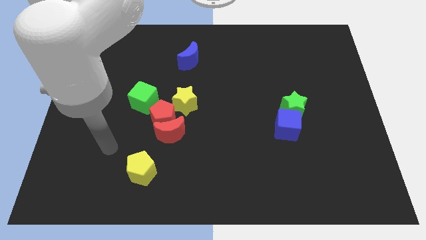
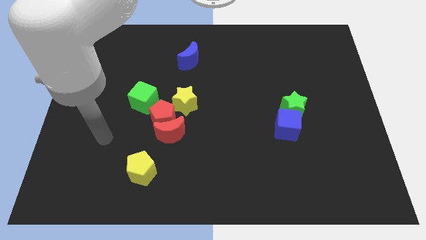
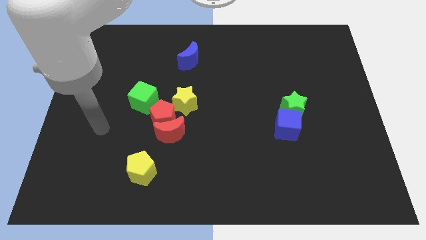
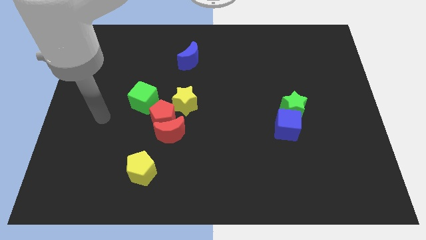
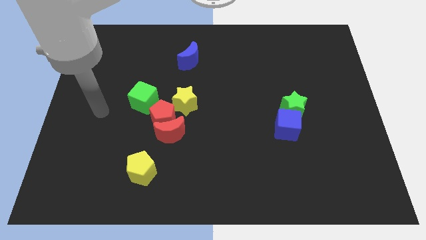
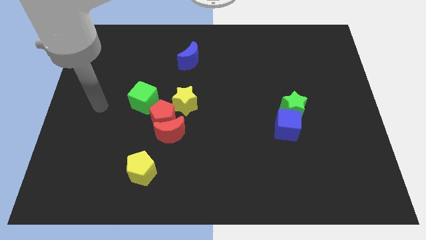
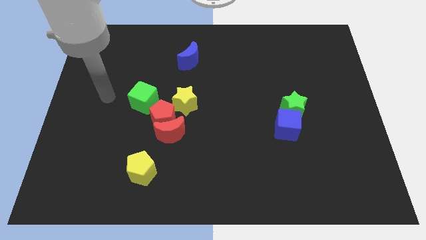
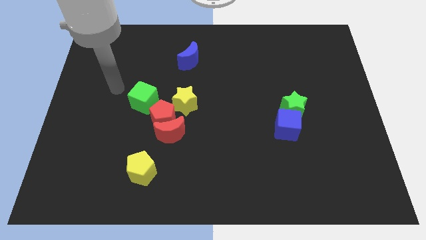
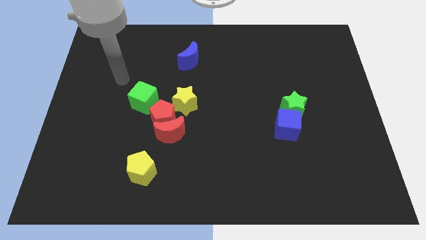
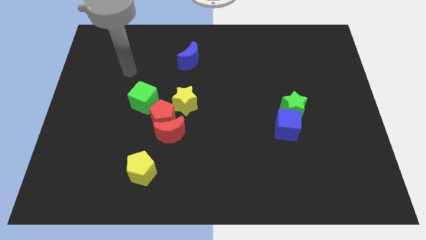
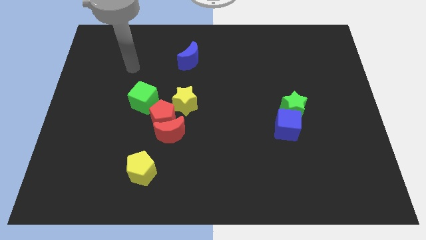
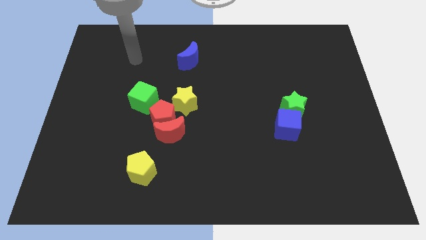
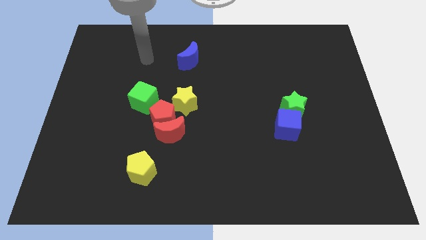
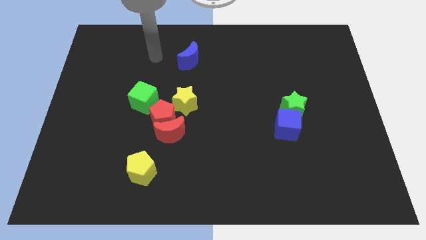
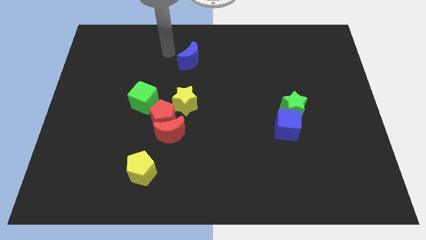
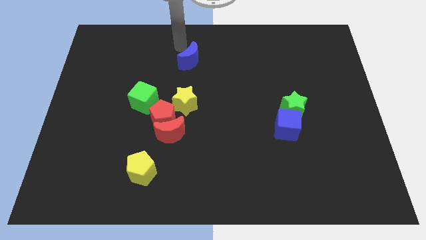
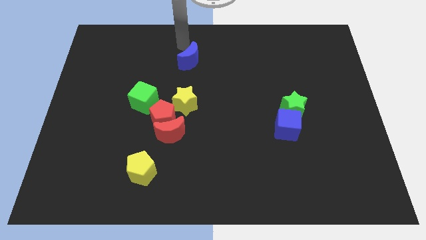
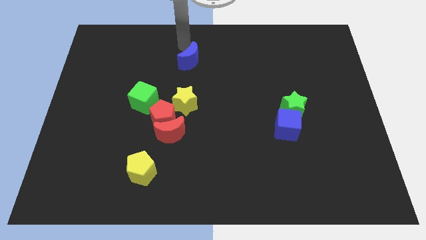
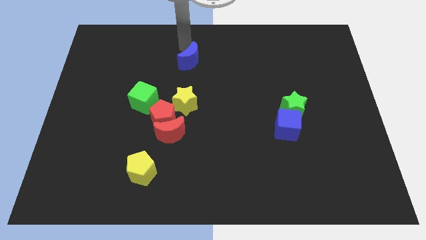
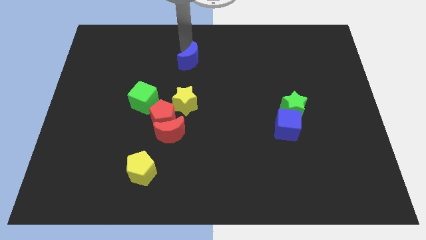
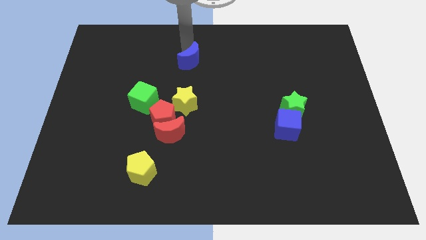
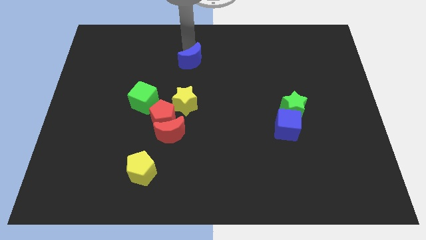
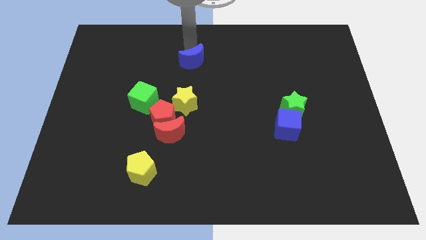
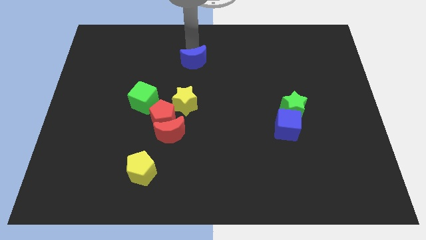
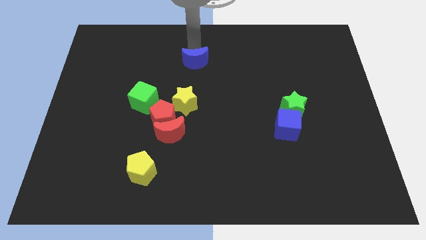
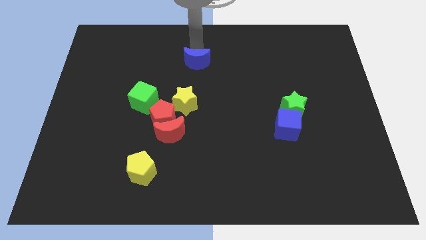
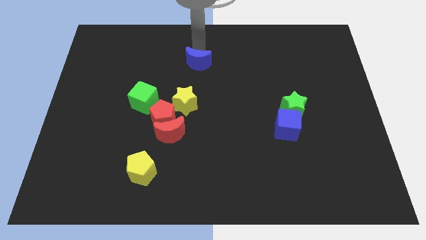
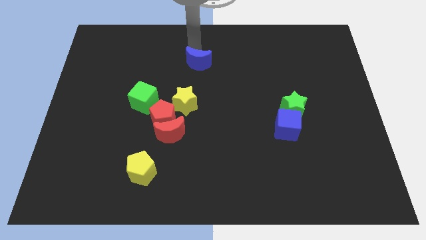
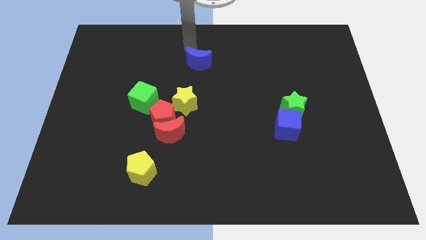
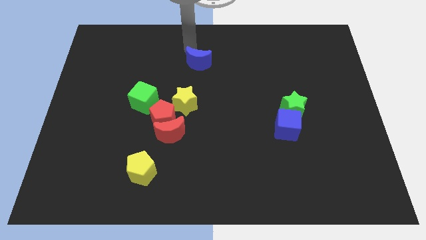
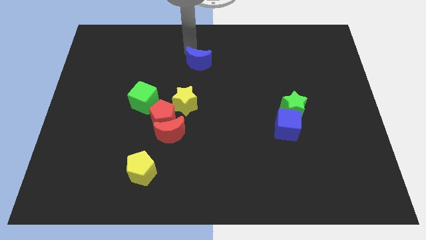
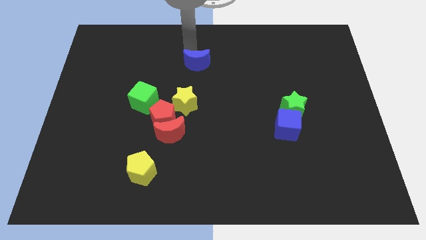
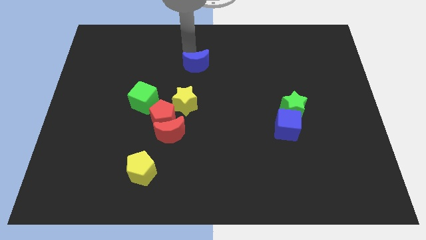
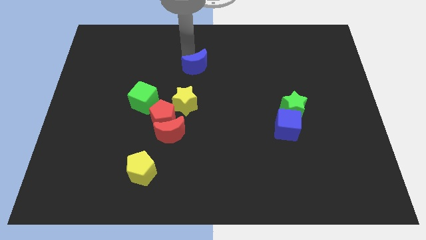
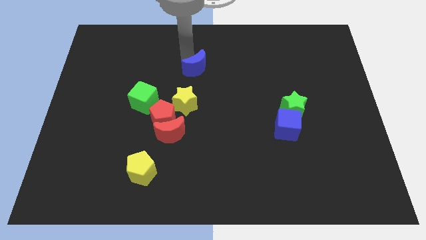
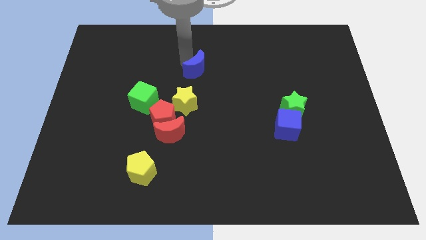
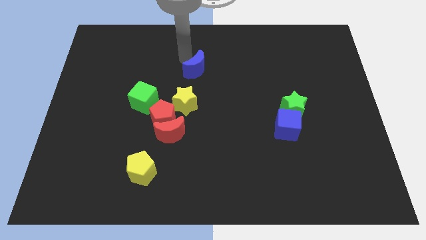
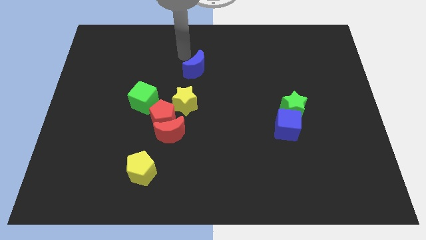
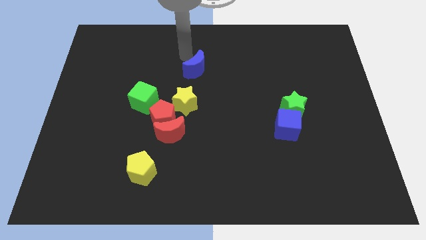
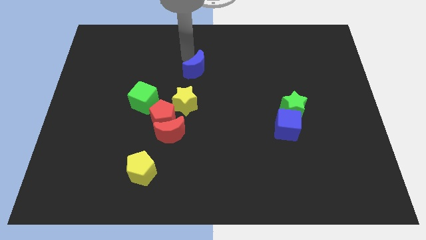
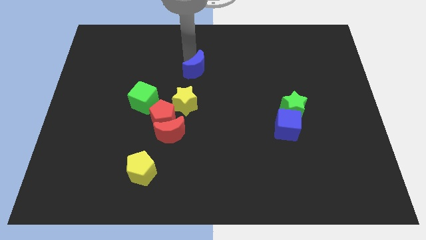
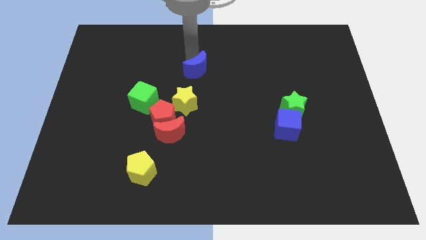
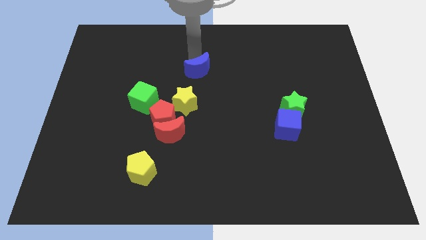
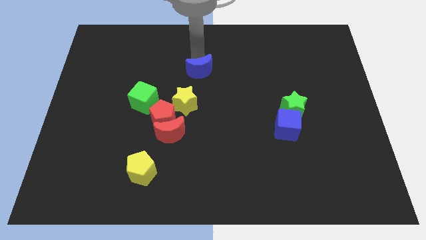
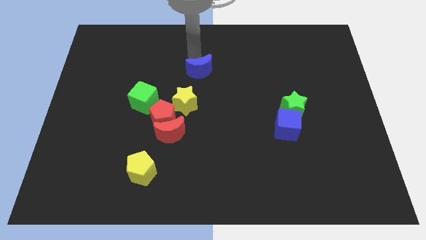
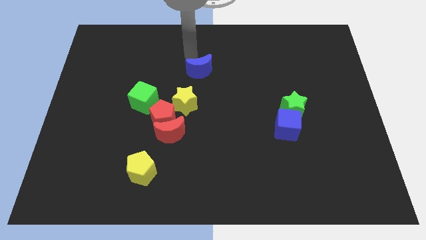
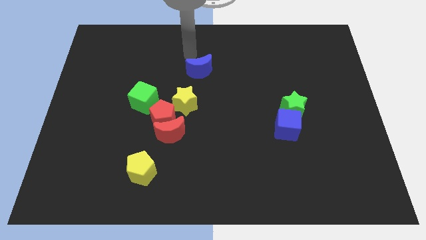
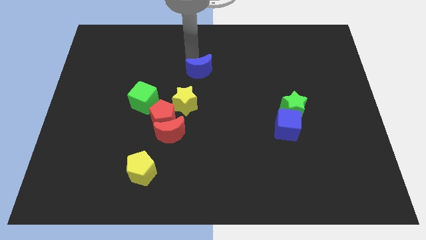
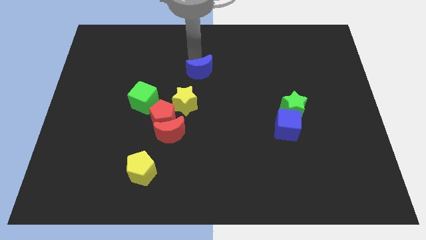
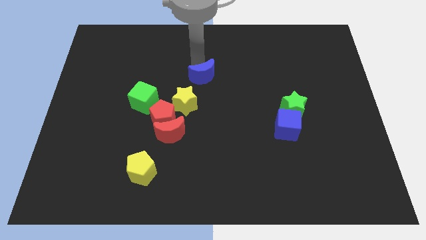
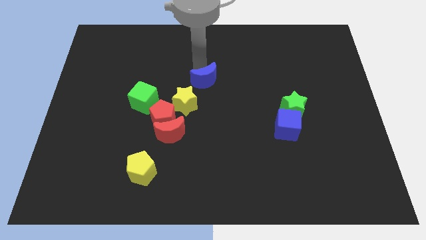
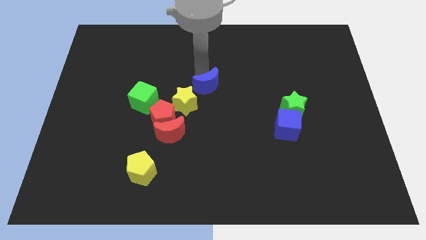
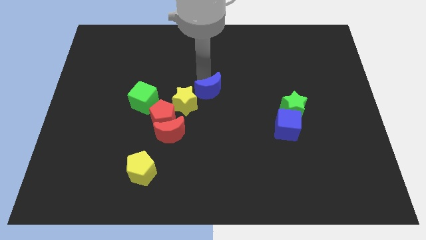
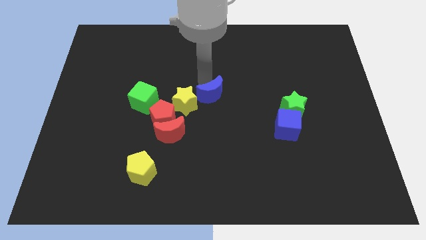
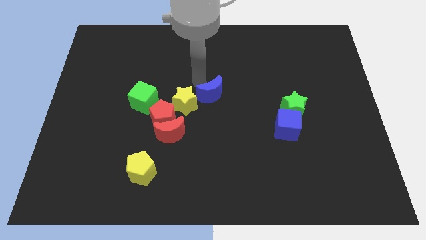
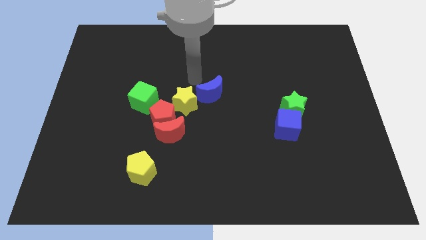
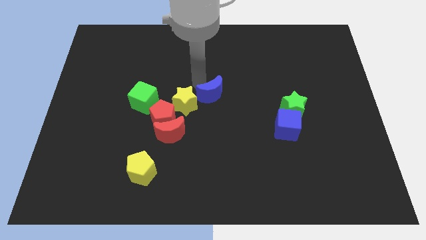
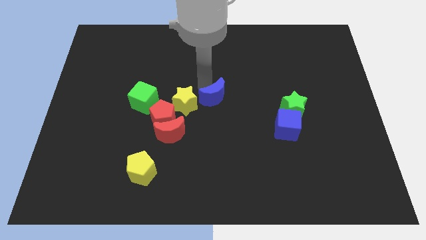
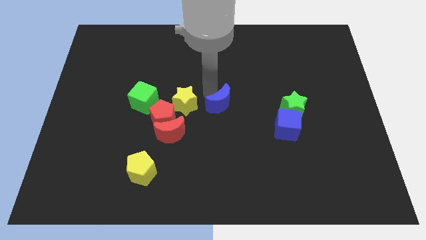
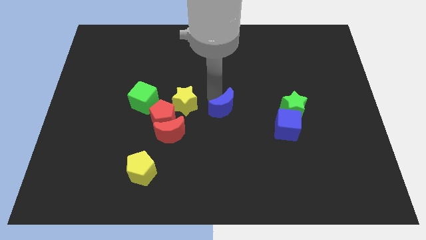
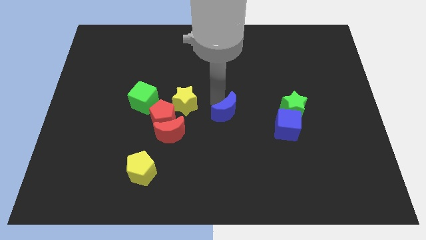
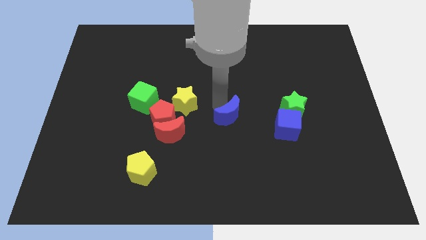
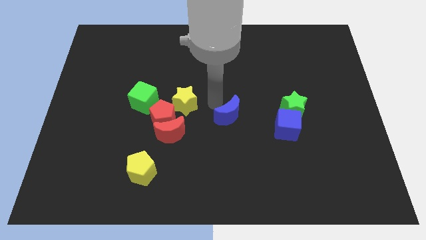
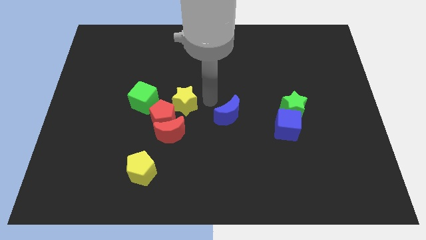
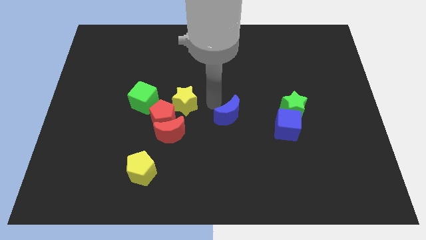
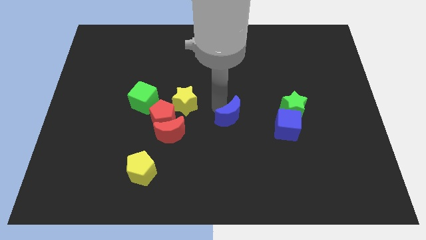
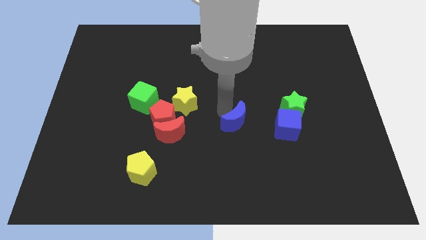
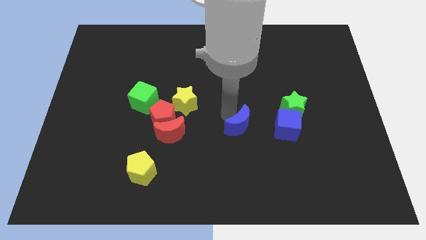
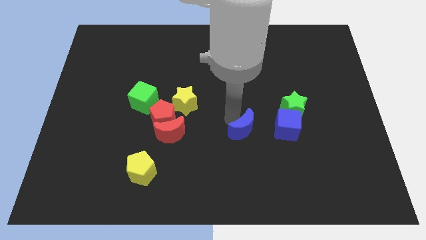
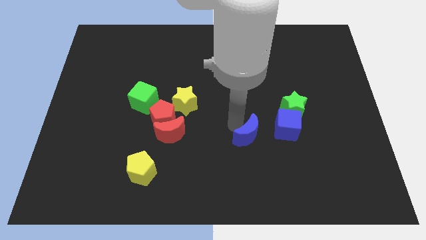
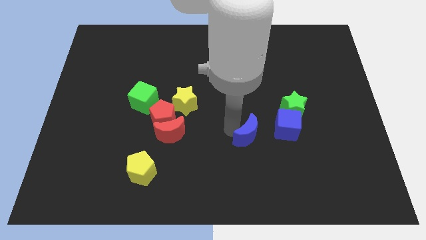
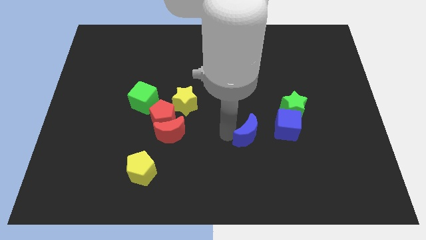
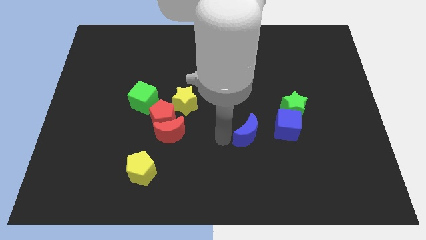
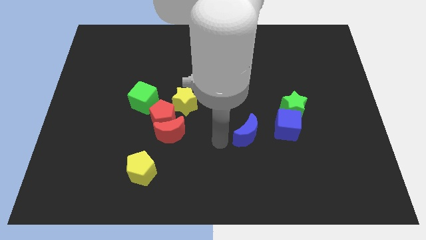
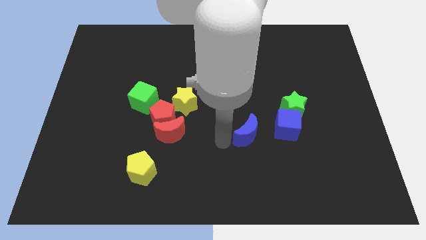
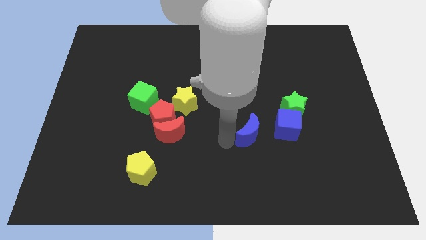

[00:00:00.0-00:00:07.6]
slide the blue moon diagonally down and to the left of the green star
